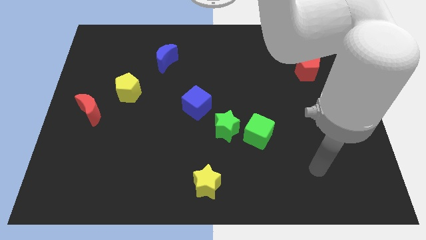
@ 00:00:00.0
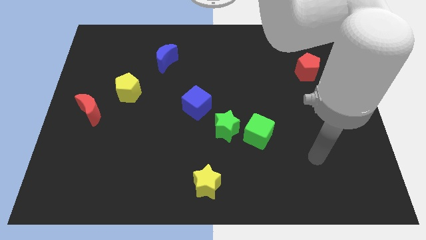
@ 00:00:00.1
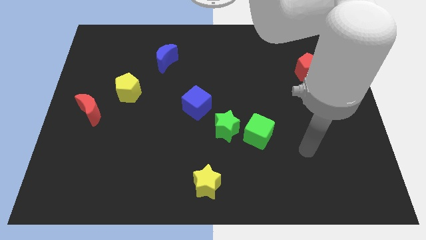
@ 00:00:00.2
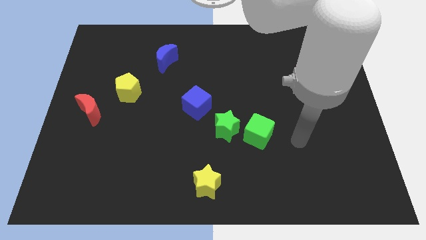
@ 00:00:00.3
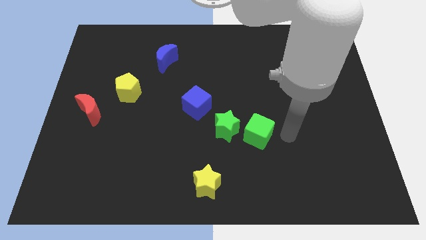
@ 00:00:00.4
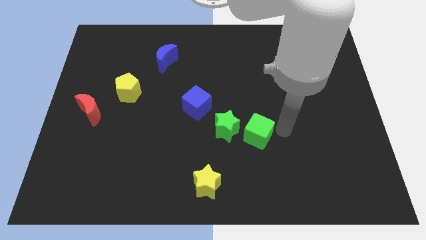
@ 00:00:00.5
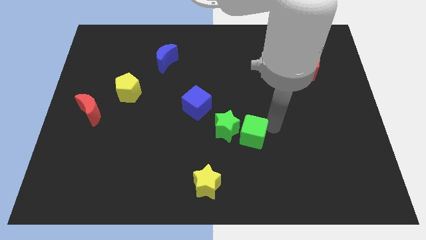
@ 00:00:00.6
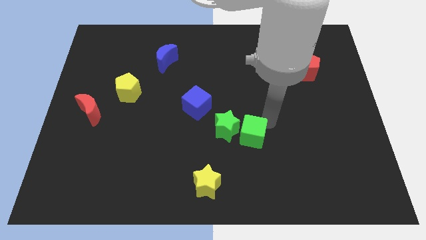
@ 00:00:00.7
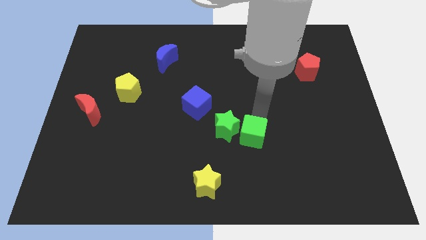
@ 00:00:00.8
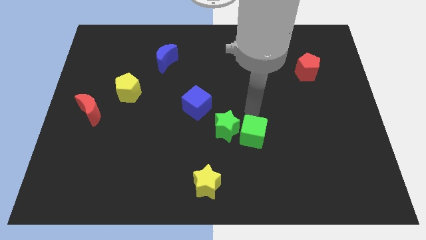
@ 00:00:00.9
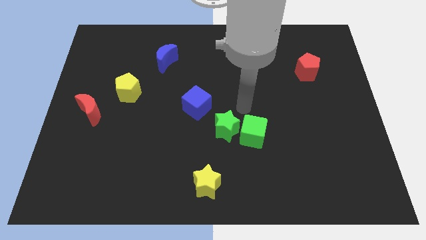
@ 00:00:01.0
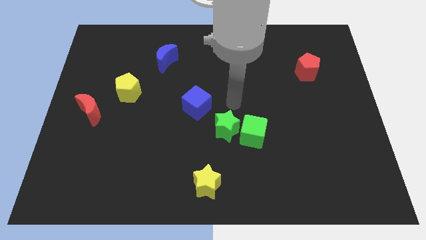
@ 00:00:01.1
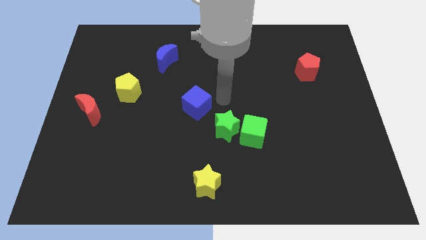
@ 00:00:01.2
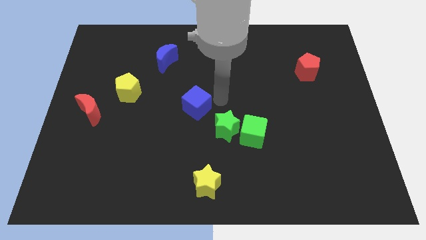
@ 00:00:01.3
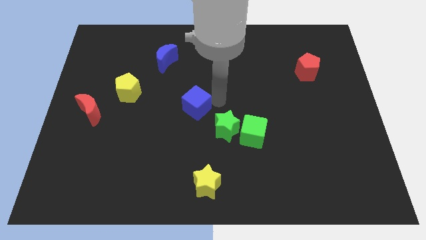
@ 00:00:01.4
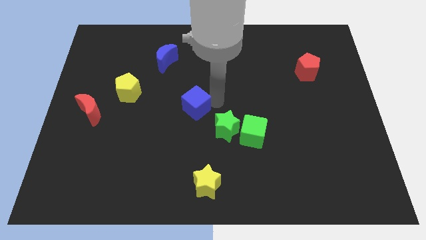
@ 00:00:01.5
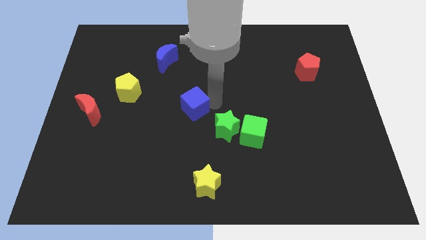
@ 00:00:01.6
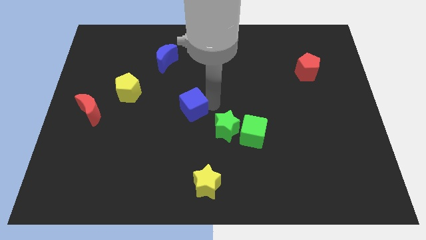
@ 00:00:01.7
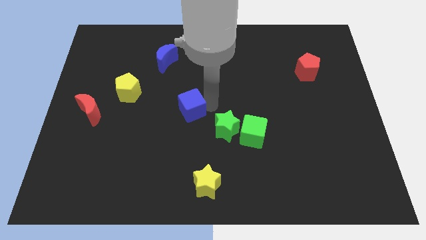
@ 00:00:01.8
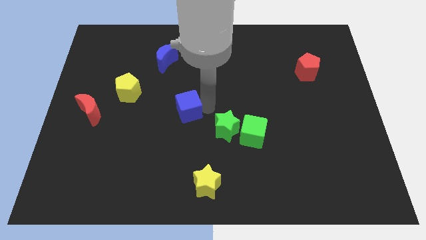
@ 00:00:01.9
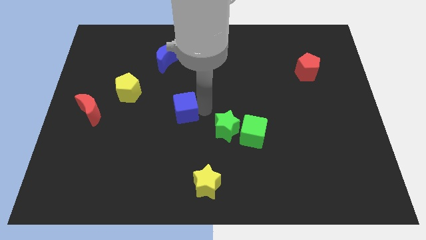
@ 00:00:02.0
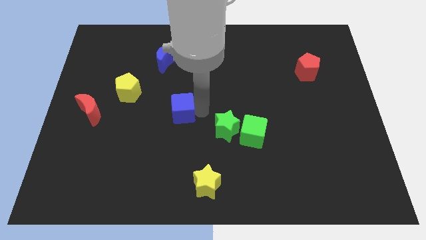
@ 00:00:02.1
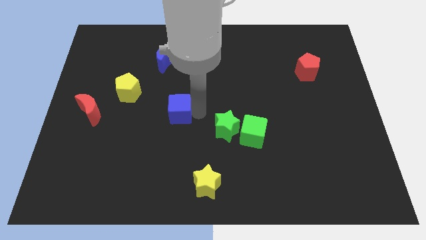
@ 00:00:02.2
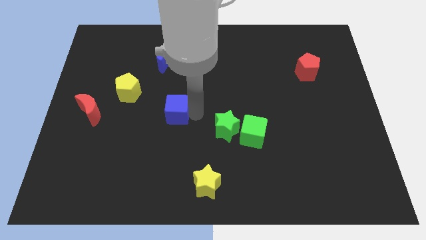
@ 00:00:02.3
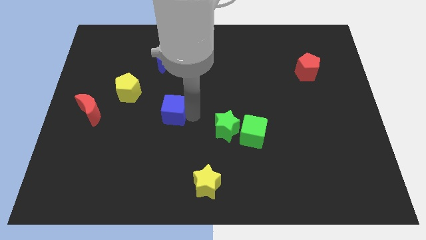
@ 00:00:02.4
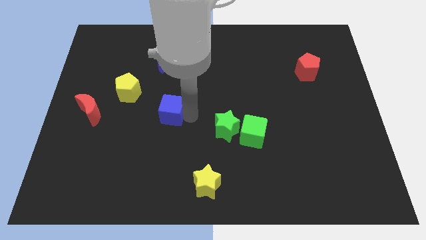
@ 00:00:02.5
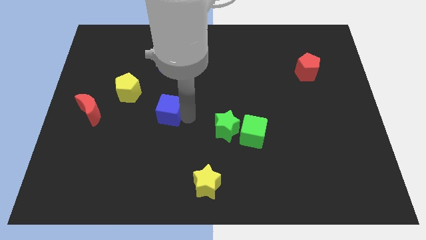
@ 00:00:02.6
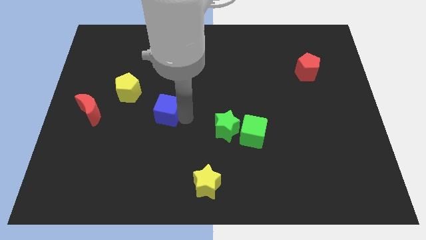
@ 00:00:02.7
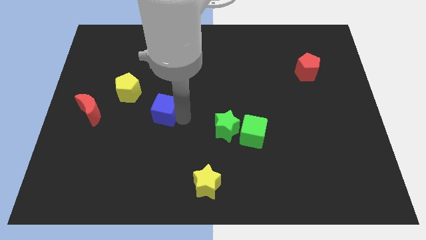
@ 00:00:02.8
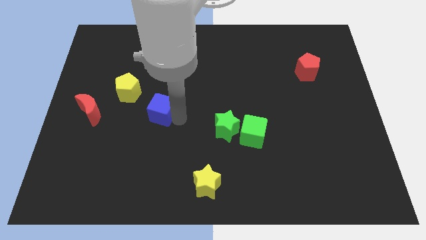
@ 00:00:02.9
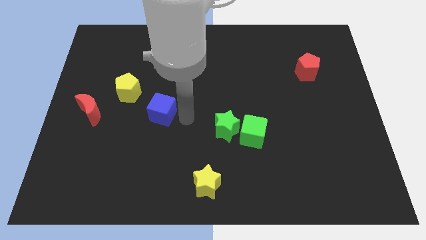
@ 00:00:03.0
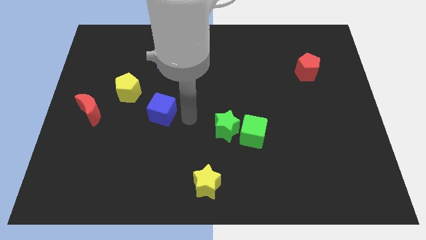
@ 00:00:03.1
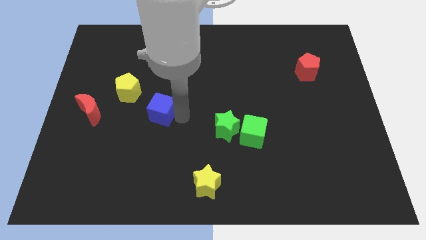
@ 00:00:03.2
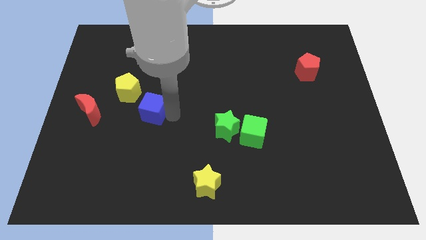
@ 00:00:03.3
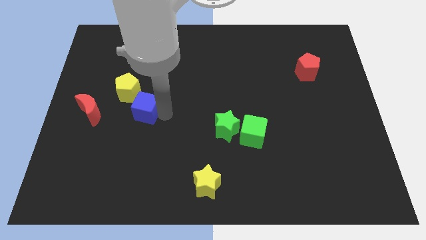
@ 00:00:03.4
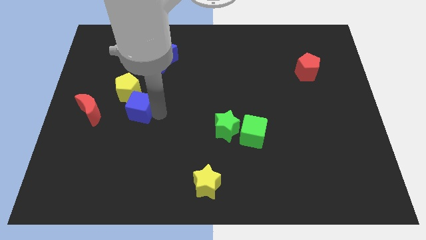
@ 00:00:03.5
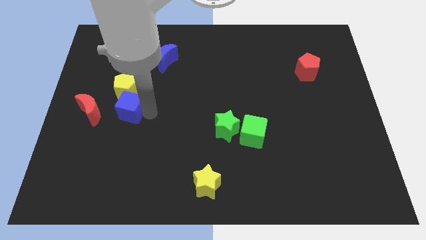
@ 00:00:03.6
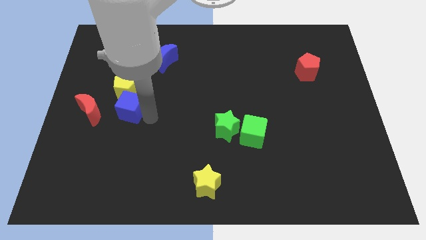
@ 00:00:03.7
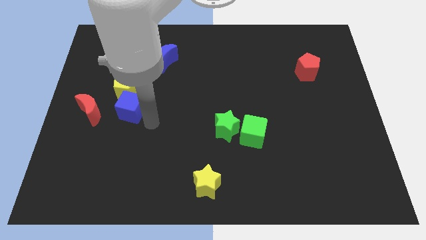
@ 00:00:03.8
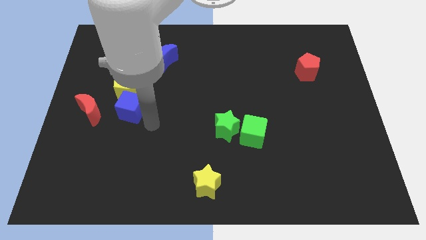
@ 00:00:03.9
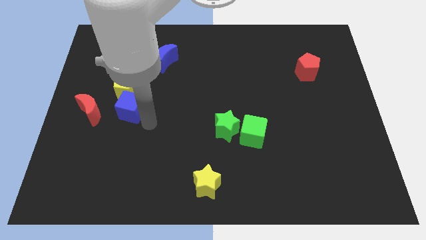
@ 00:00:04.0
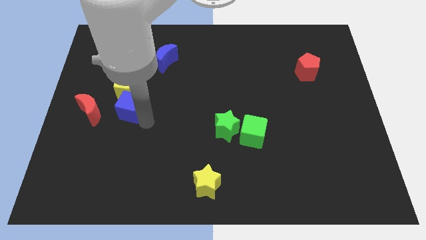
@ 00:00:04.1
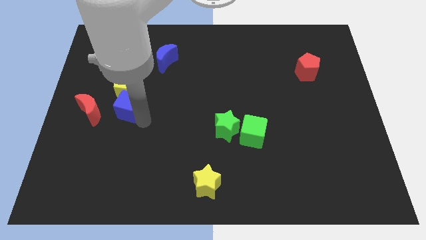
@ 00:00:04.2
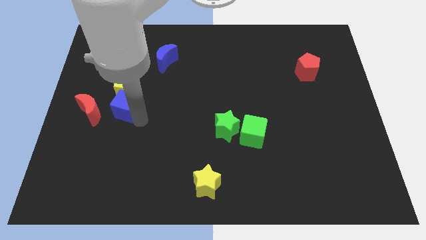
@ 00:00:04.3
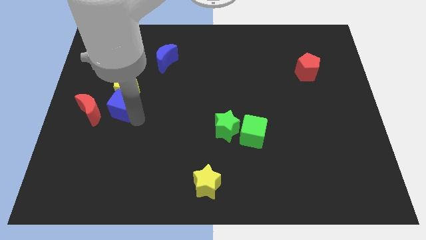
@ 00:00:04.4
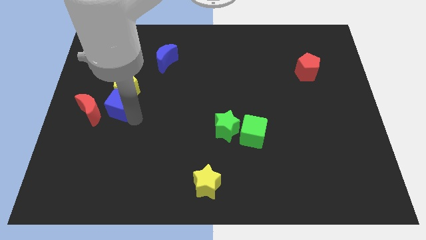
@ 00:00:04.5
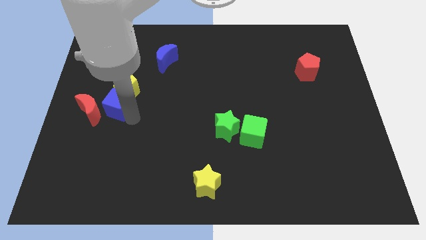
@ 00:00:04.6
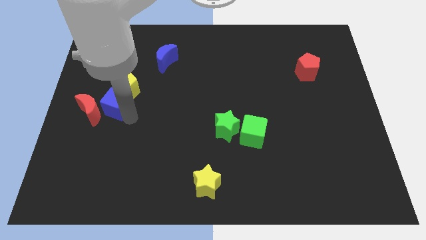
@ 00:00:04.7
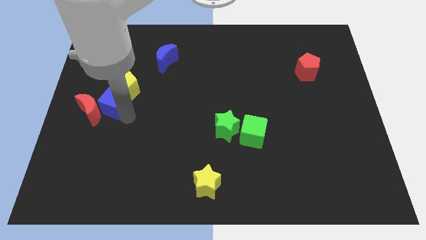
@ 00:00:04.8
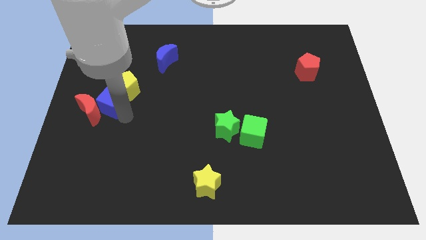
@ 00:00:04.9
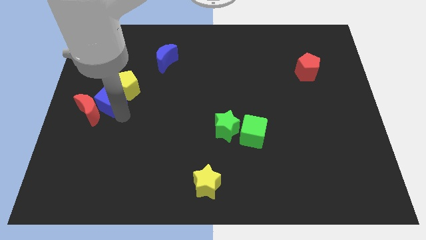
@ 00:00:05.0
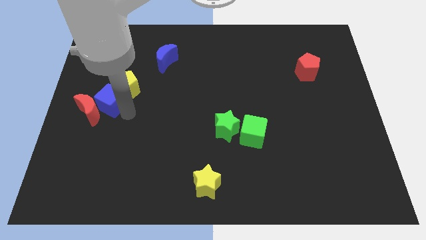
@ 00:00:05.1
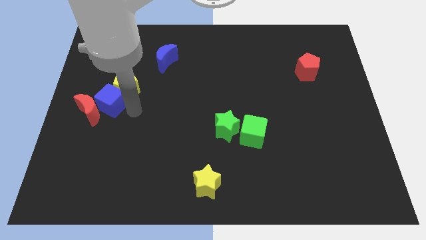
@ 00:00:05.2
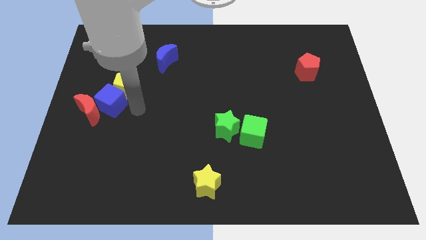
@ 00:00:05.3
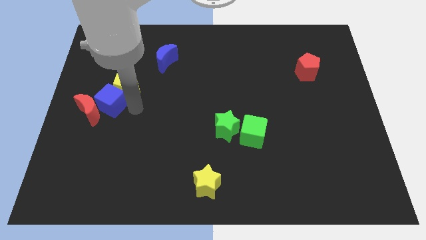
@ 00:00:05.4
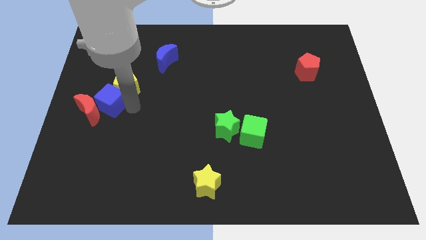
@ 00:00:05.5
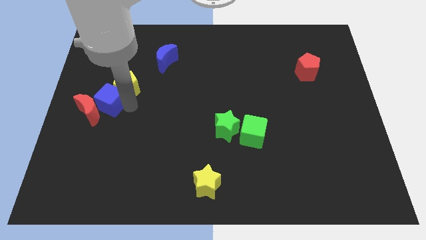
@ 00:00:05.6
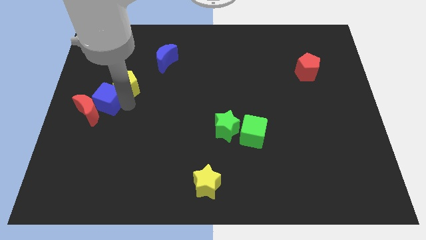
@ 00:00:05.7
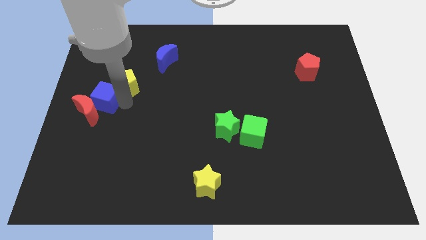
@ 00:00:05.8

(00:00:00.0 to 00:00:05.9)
slide the blue cube to the left side of the board

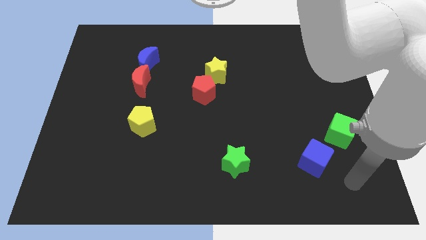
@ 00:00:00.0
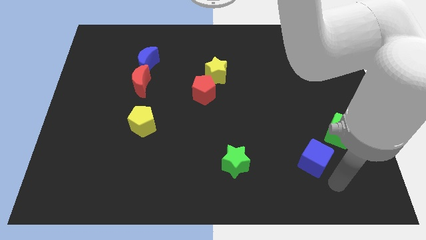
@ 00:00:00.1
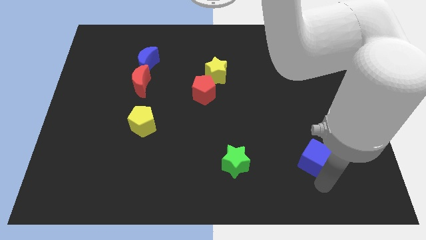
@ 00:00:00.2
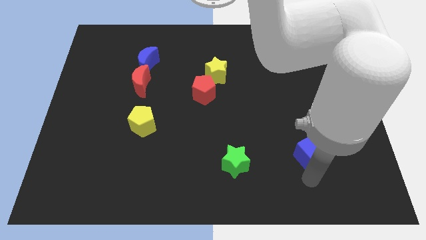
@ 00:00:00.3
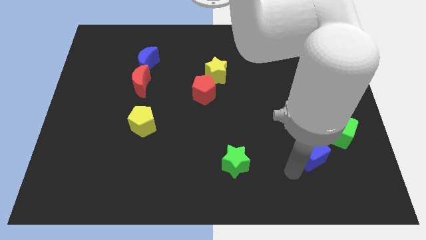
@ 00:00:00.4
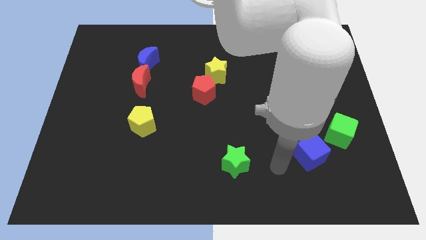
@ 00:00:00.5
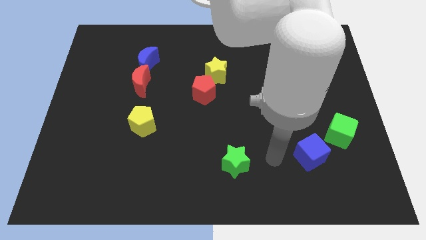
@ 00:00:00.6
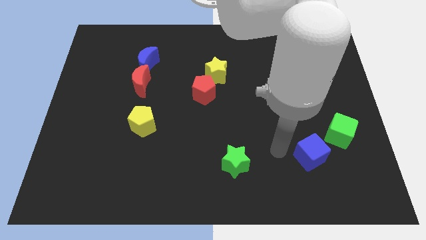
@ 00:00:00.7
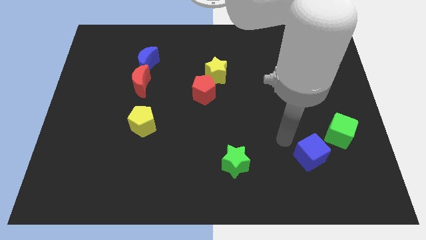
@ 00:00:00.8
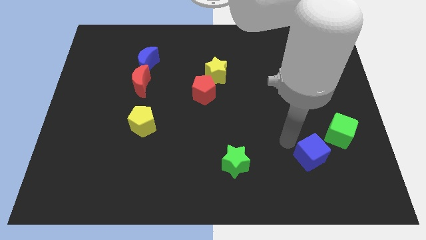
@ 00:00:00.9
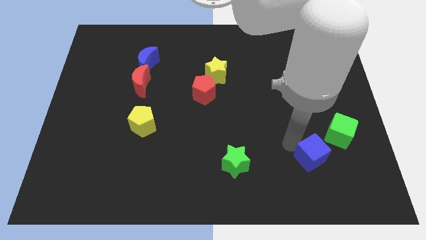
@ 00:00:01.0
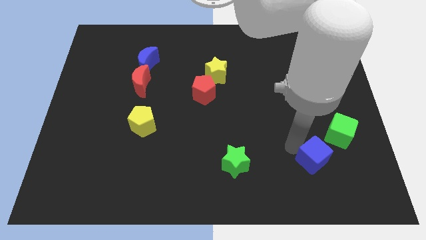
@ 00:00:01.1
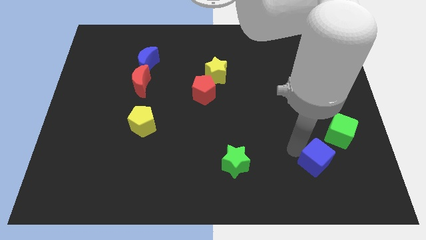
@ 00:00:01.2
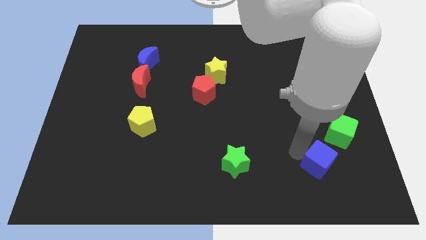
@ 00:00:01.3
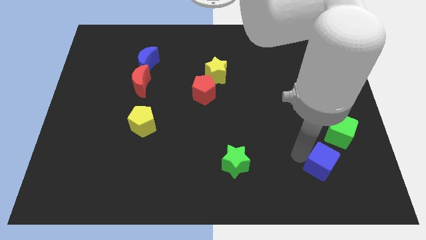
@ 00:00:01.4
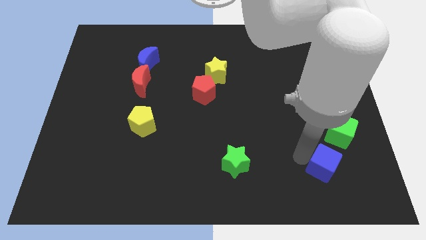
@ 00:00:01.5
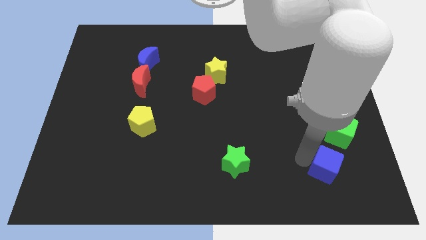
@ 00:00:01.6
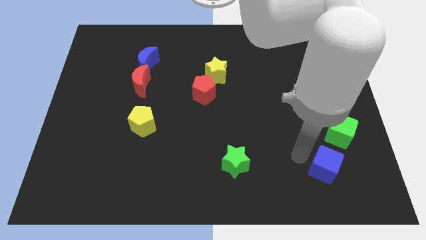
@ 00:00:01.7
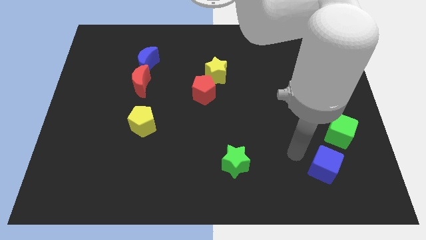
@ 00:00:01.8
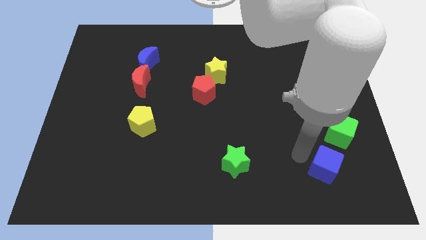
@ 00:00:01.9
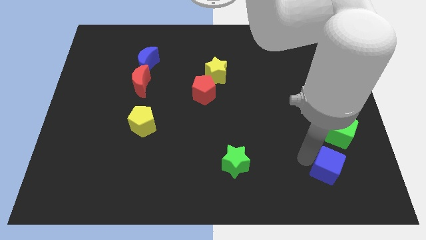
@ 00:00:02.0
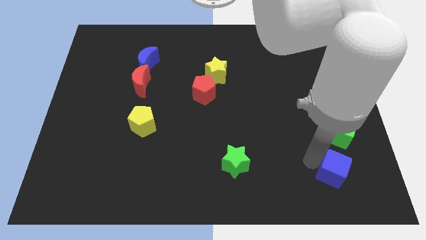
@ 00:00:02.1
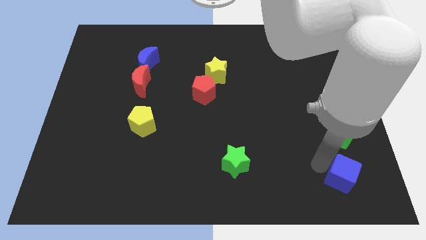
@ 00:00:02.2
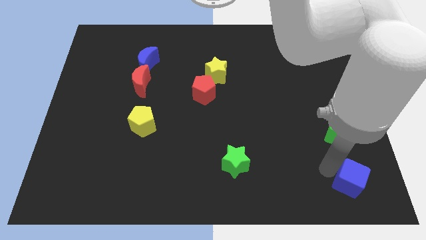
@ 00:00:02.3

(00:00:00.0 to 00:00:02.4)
put the blue cube to the lower right corner
